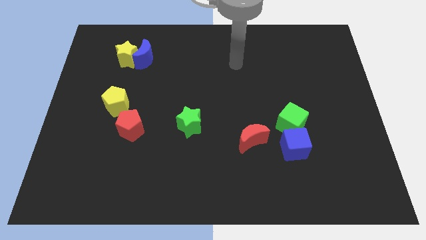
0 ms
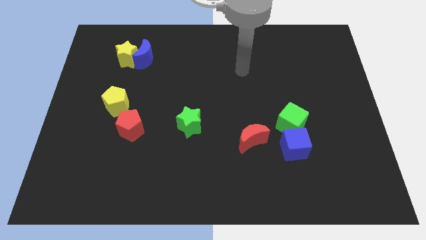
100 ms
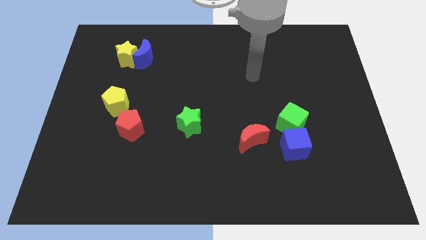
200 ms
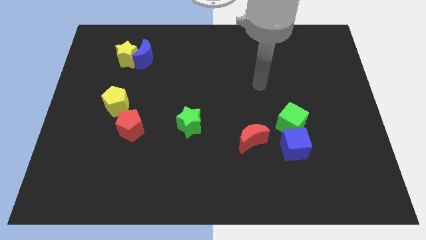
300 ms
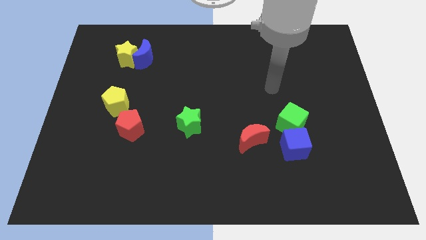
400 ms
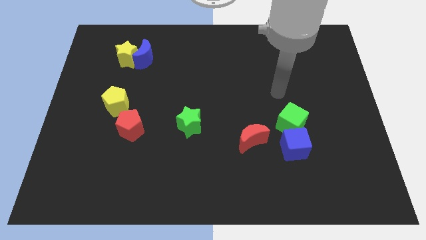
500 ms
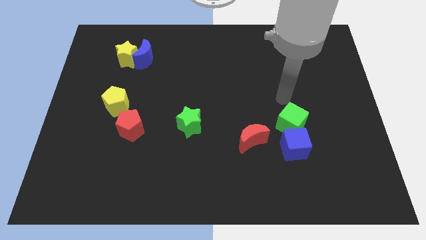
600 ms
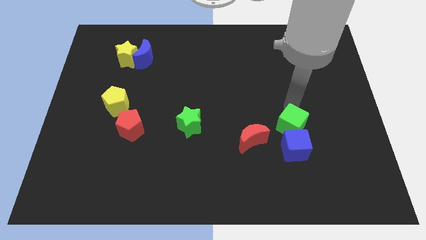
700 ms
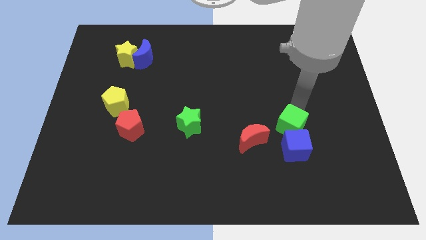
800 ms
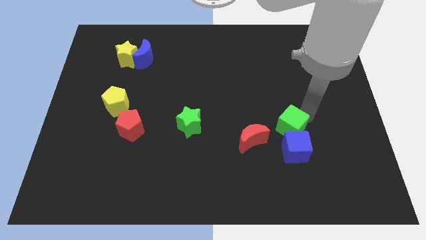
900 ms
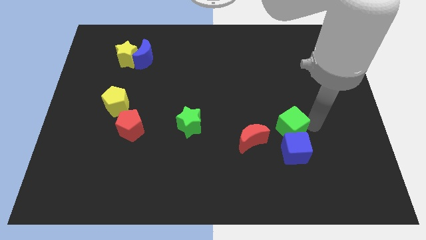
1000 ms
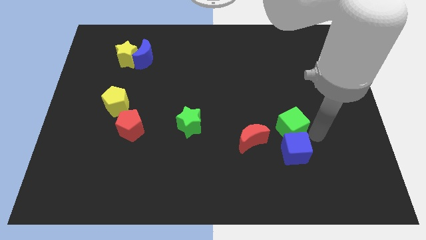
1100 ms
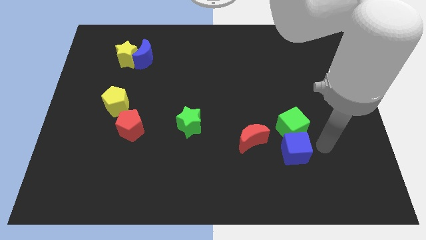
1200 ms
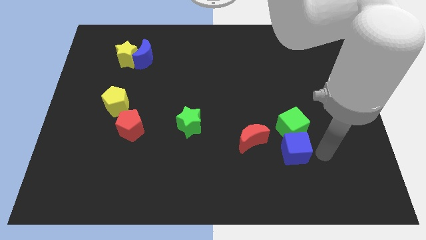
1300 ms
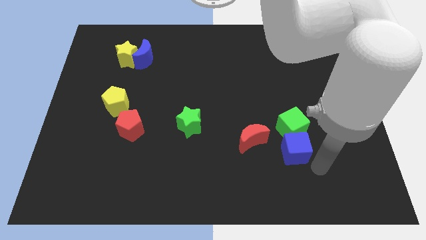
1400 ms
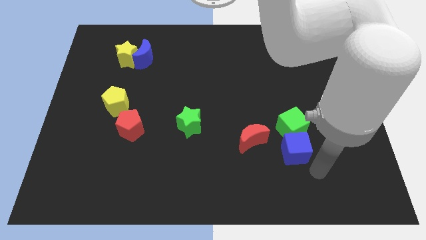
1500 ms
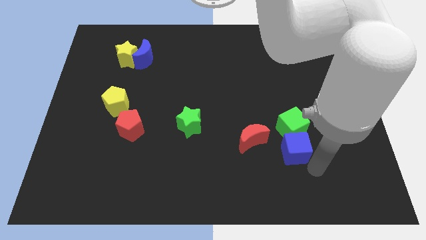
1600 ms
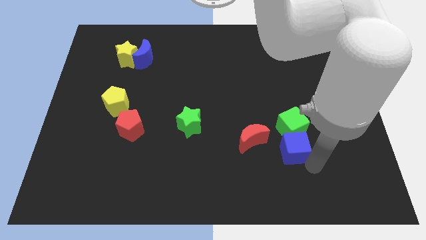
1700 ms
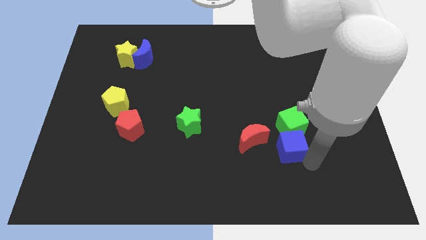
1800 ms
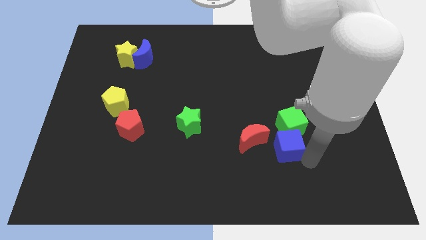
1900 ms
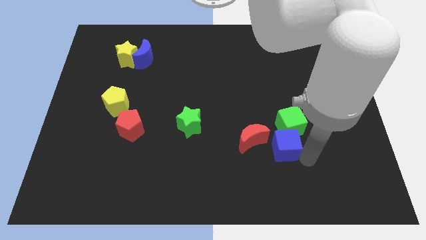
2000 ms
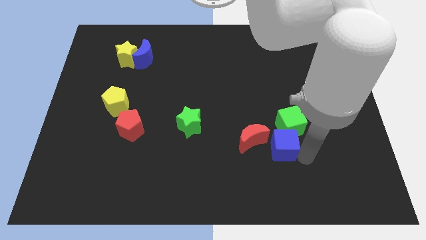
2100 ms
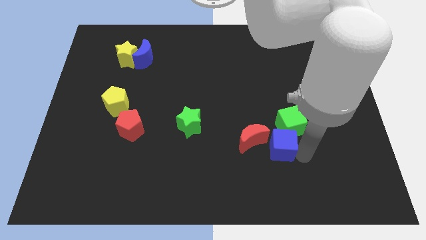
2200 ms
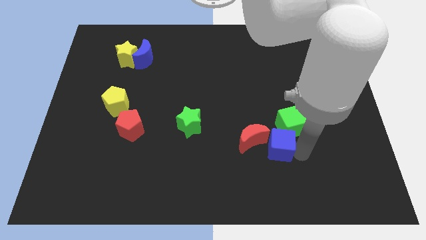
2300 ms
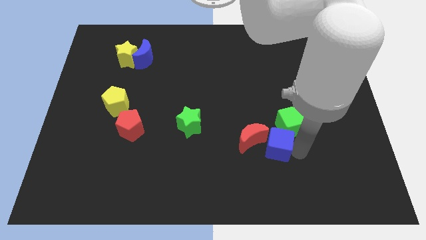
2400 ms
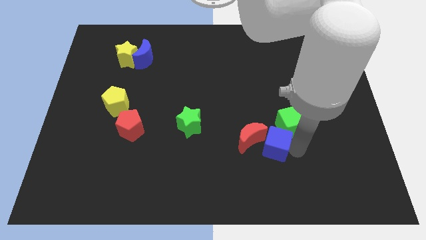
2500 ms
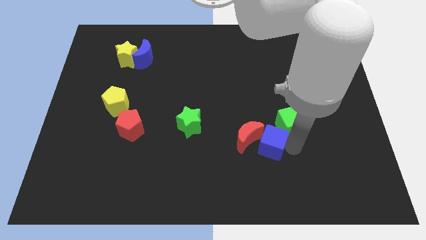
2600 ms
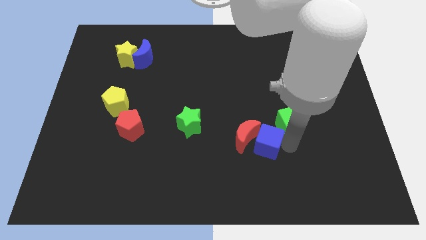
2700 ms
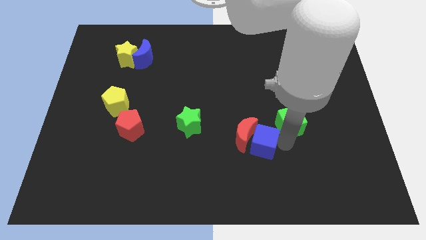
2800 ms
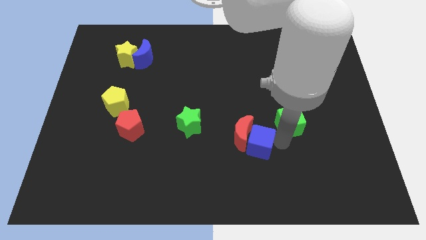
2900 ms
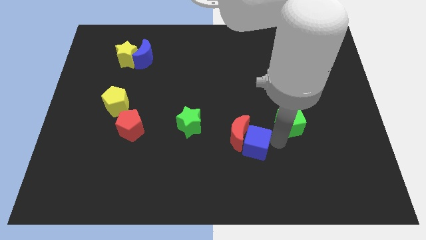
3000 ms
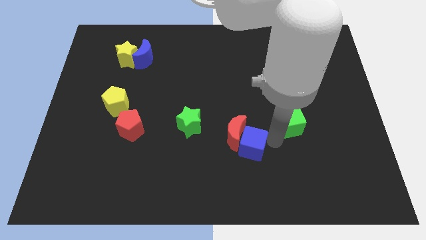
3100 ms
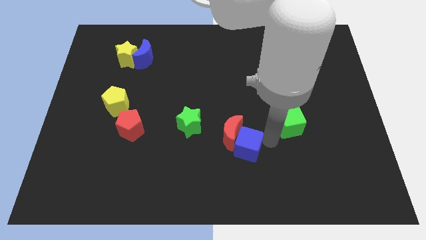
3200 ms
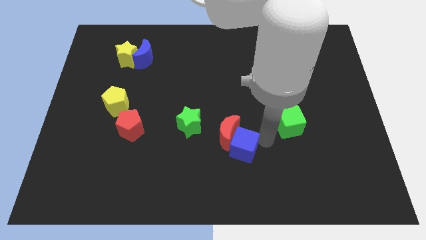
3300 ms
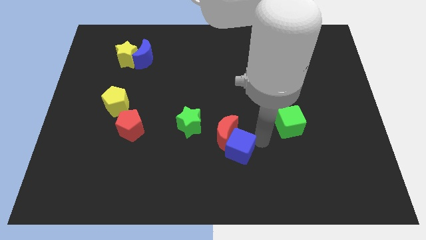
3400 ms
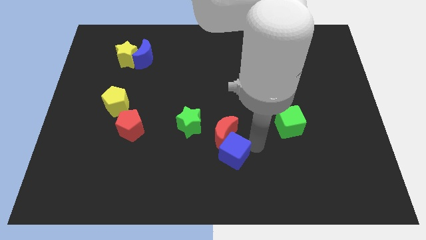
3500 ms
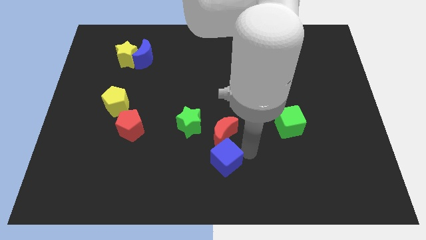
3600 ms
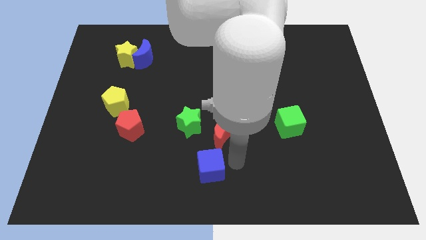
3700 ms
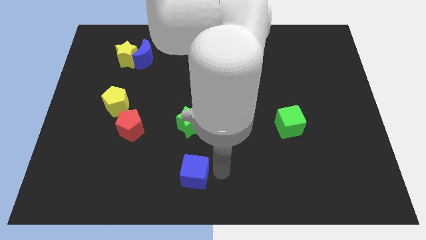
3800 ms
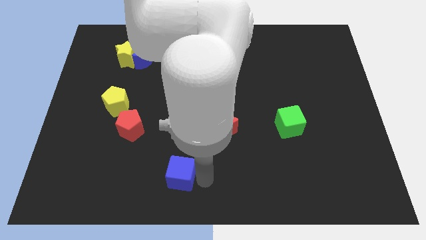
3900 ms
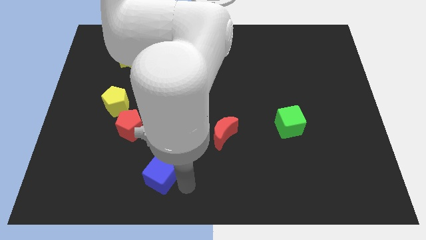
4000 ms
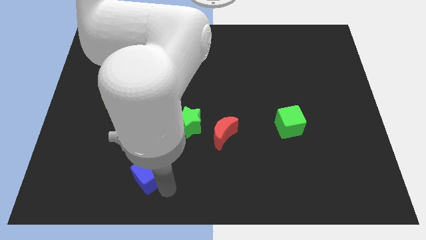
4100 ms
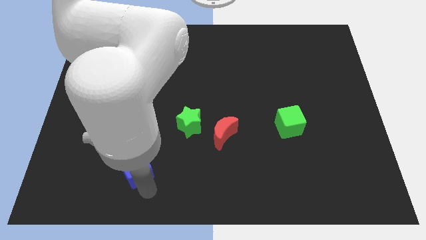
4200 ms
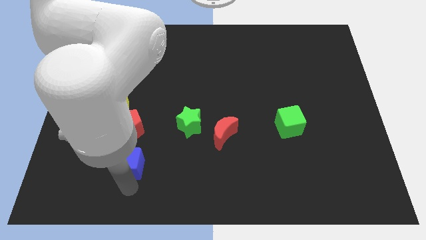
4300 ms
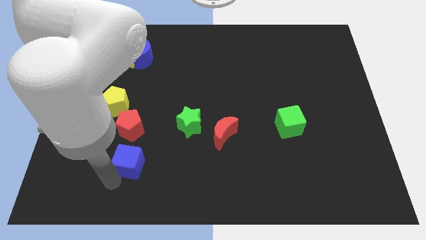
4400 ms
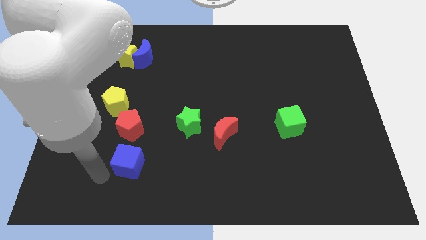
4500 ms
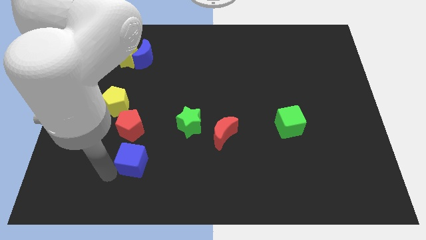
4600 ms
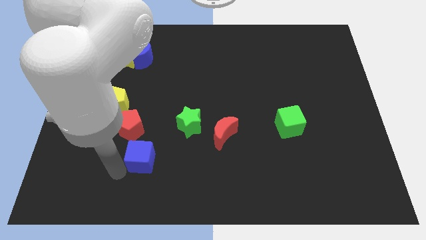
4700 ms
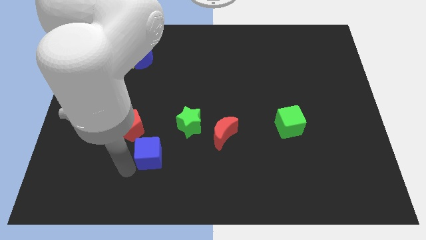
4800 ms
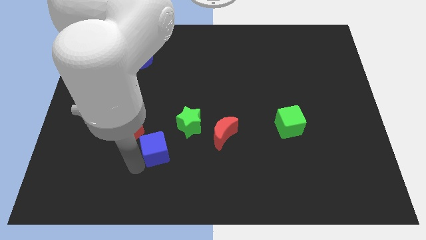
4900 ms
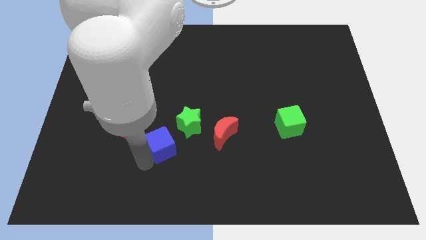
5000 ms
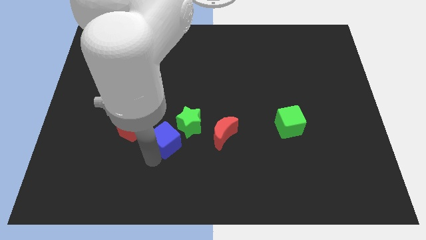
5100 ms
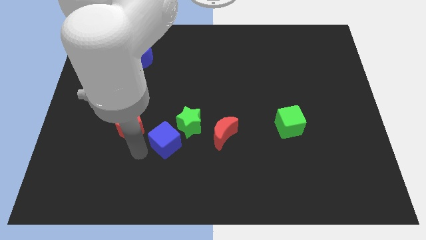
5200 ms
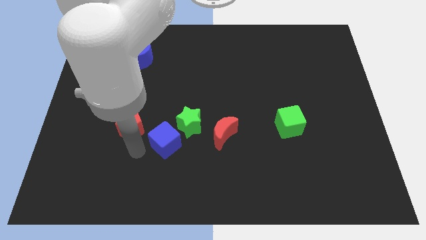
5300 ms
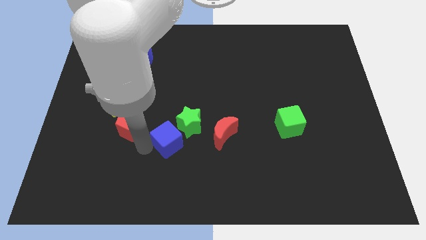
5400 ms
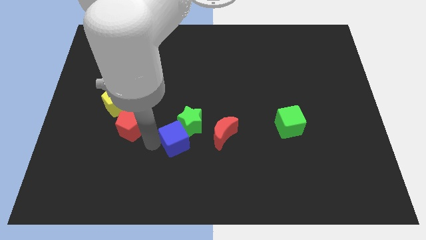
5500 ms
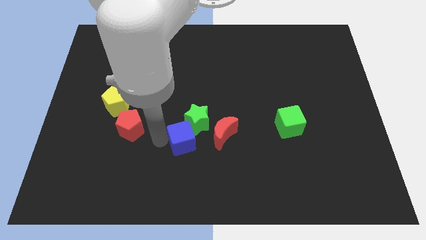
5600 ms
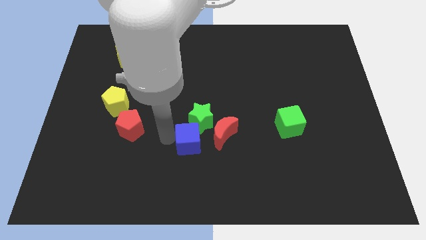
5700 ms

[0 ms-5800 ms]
put the blue cube to the middle of the board

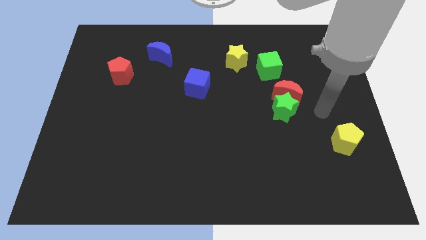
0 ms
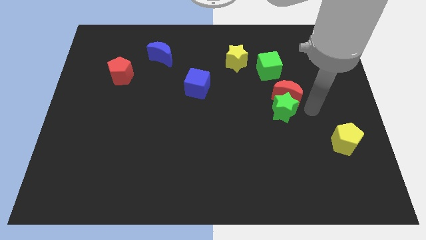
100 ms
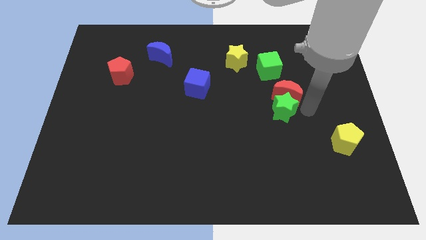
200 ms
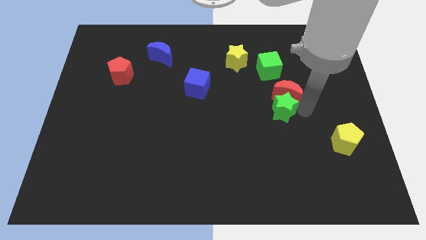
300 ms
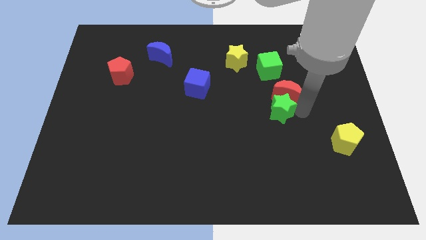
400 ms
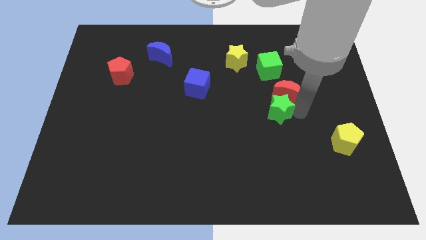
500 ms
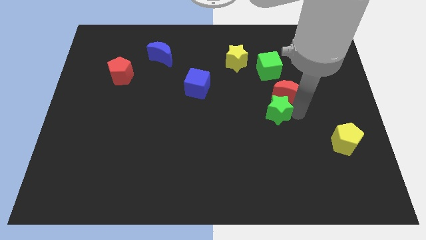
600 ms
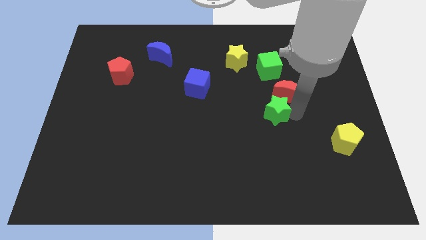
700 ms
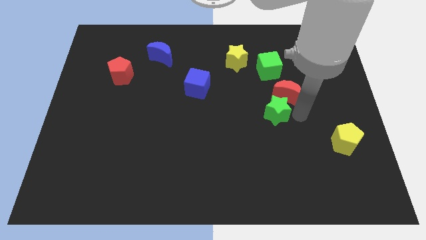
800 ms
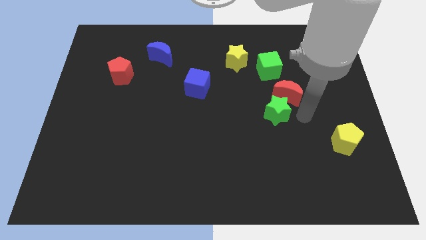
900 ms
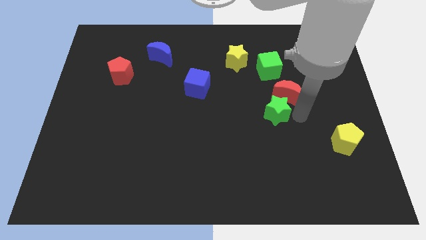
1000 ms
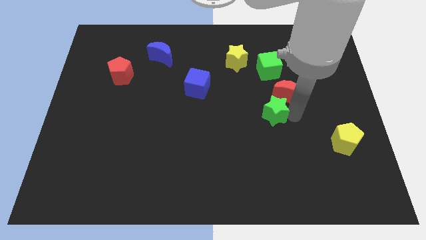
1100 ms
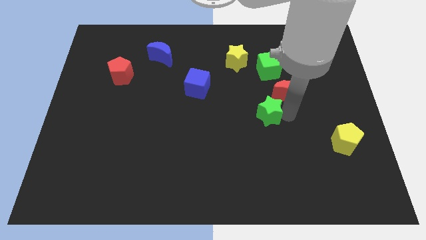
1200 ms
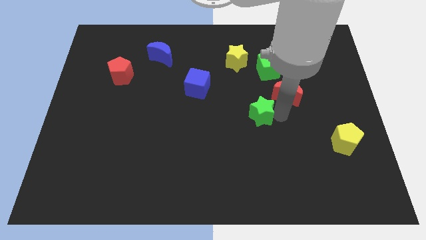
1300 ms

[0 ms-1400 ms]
push the green star to the middle of the board
